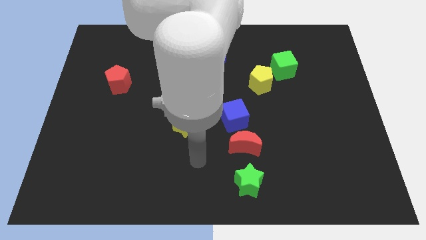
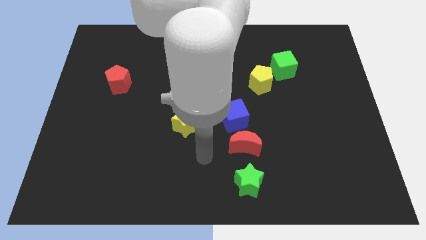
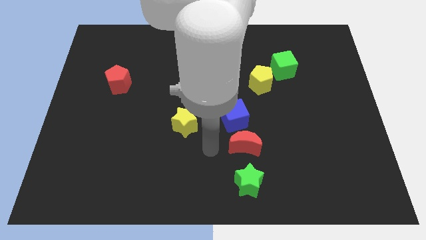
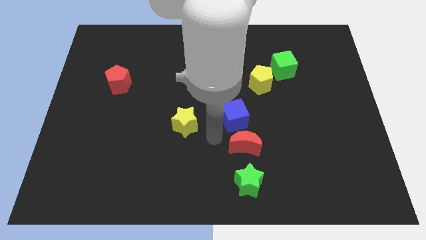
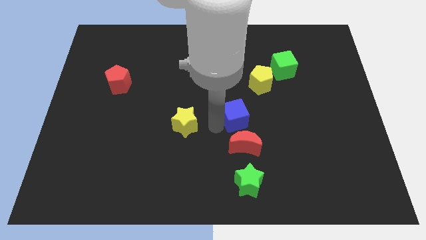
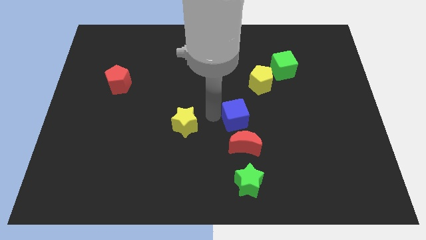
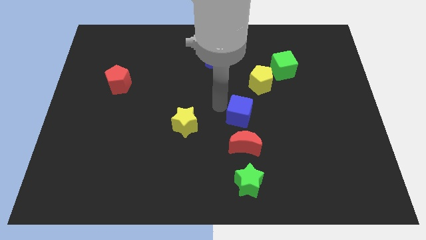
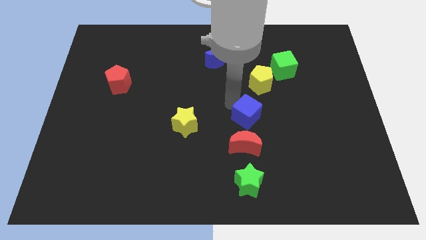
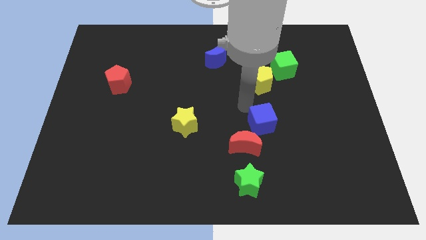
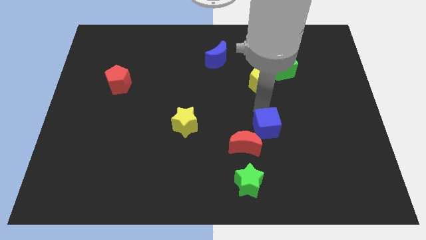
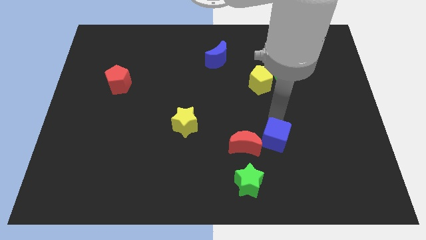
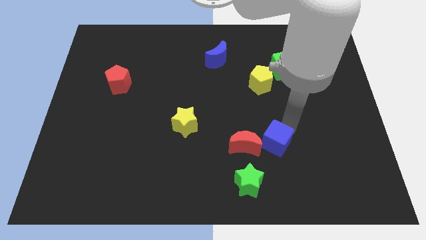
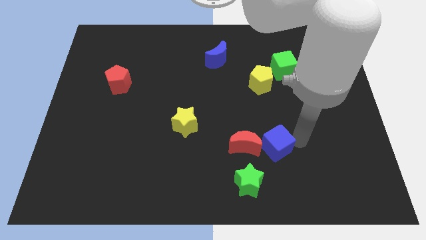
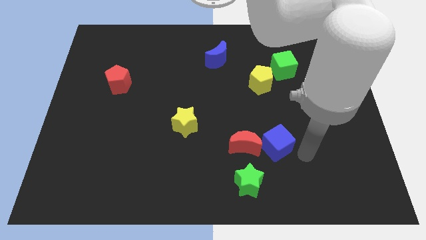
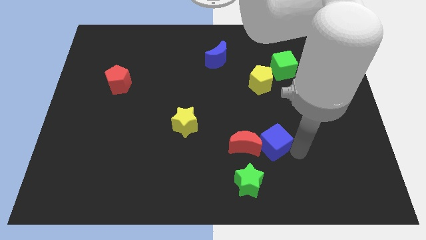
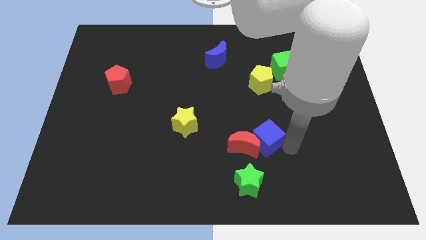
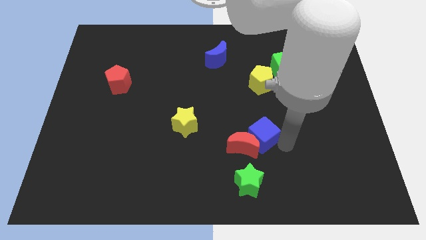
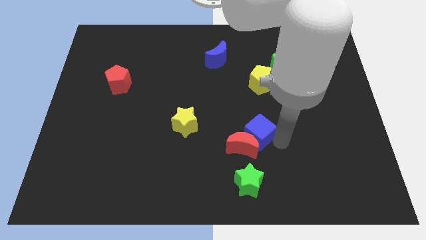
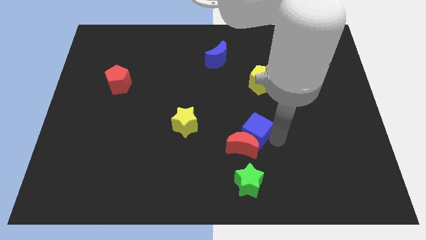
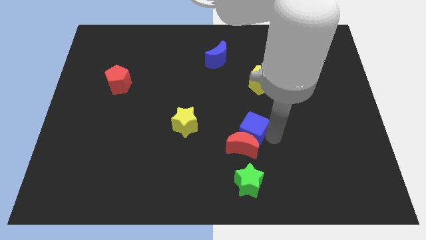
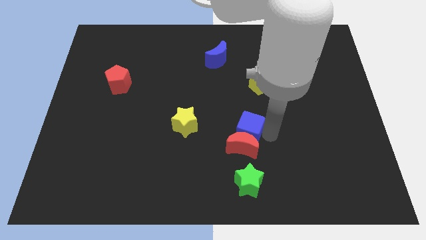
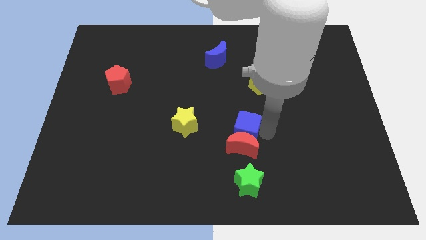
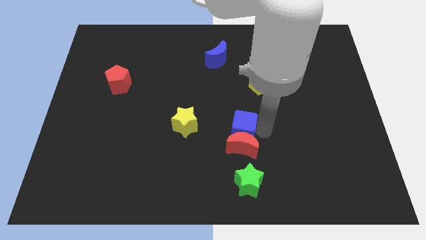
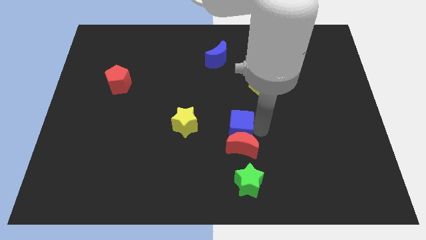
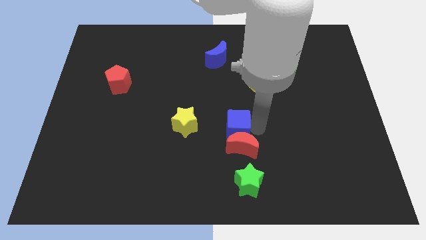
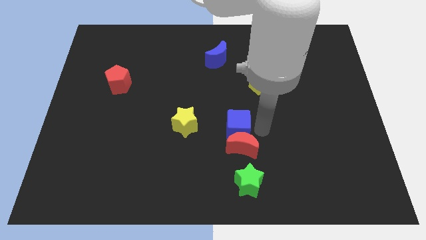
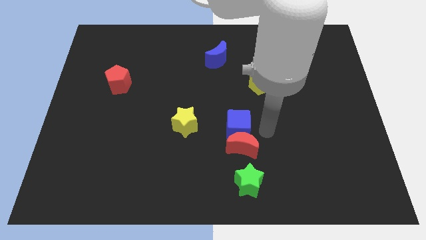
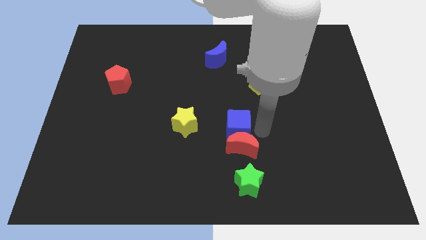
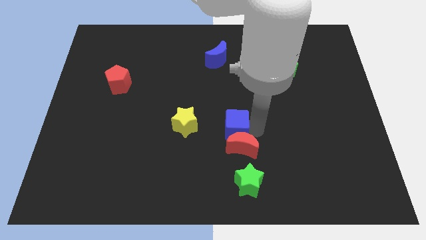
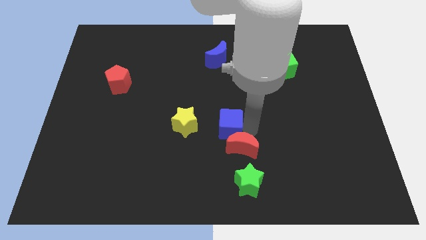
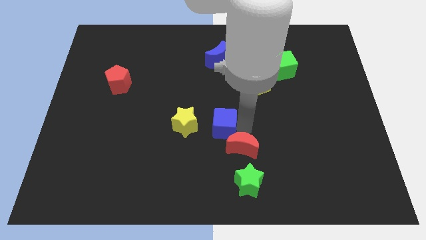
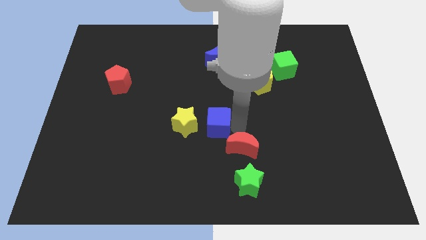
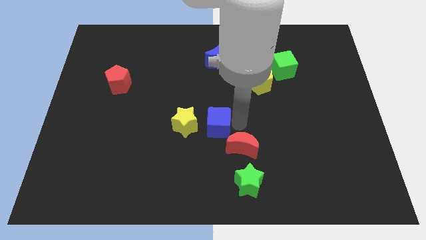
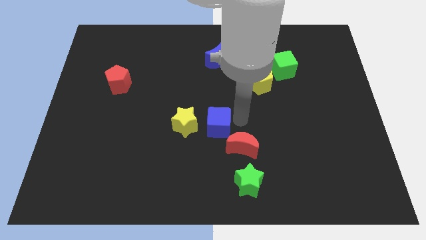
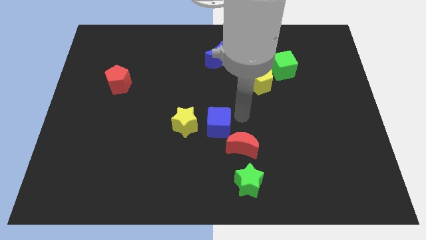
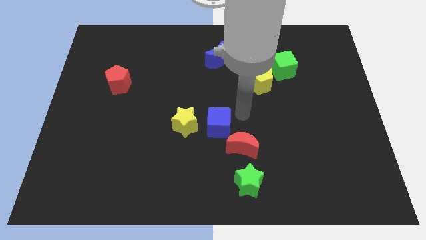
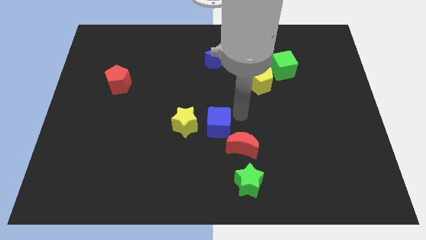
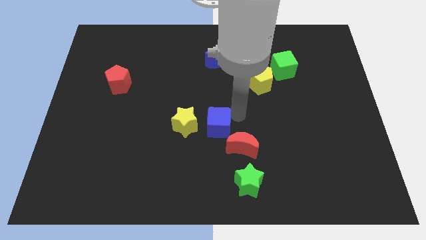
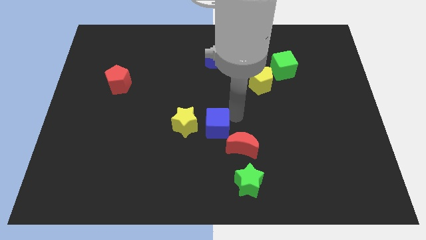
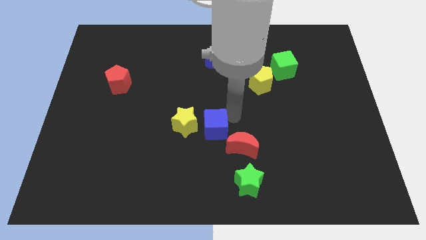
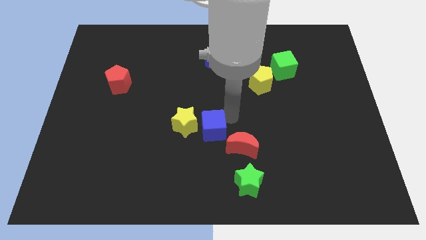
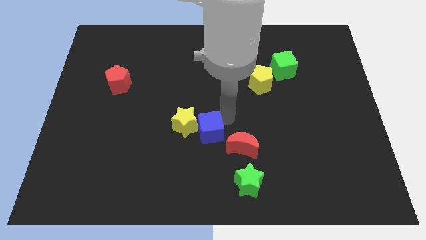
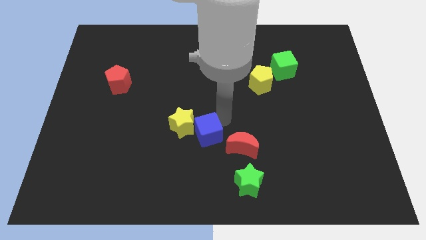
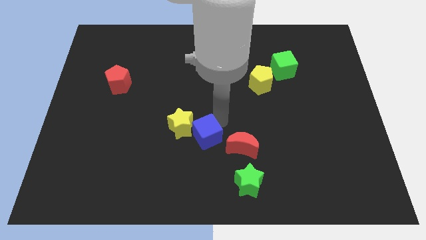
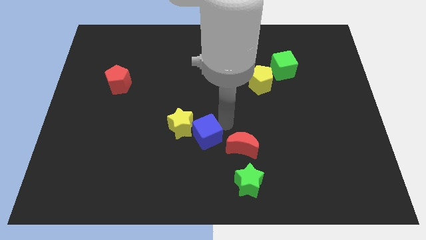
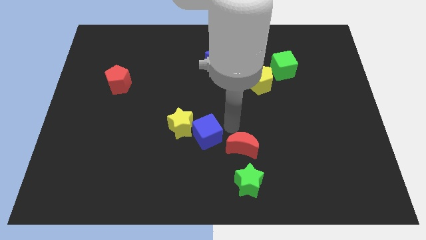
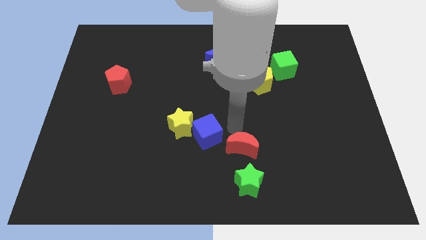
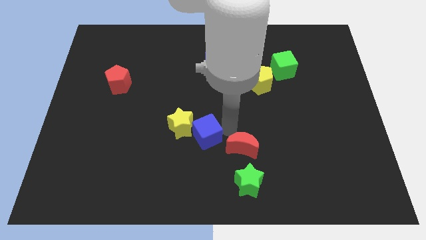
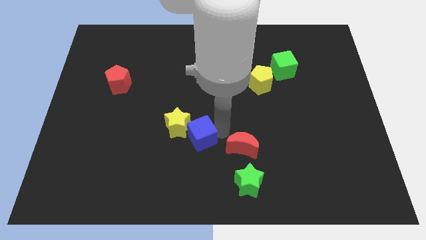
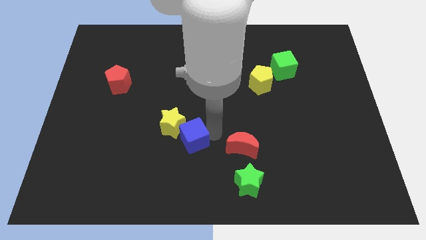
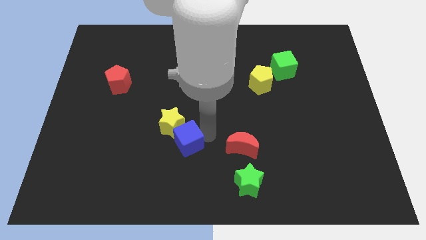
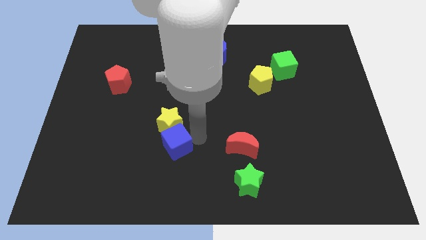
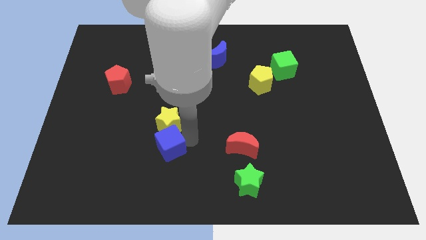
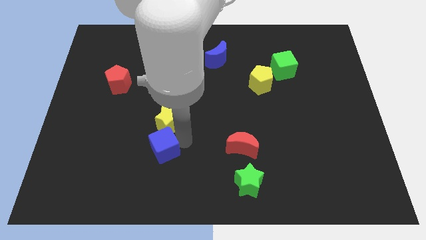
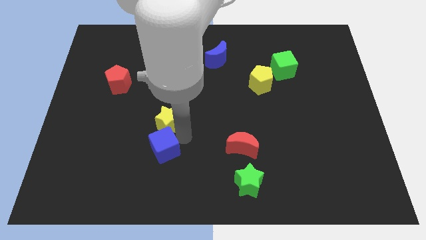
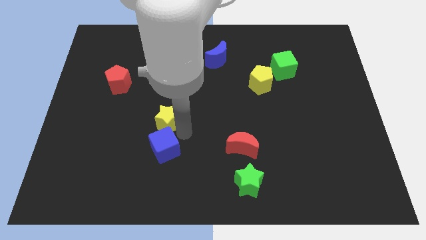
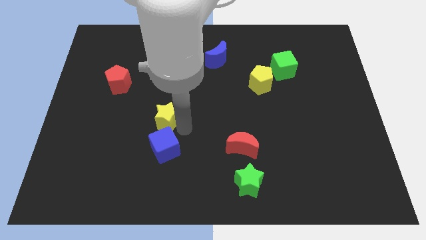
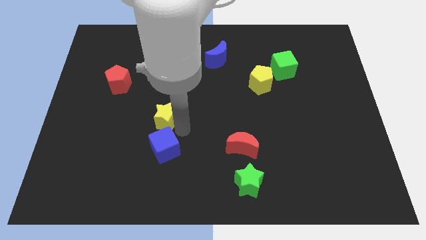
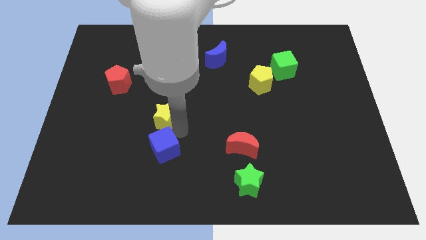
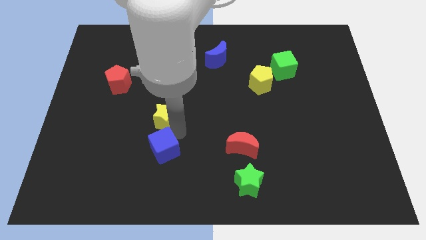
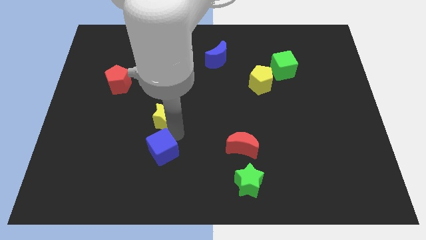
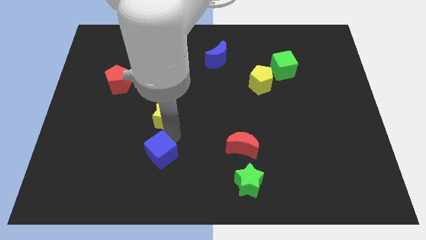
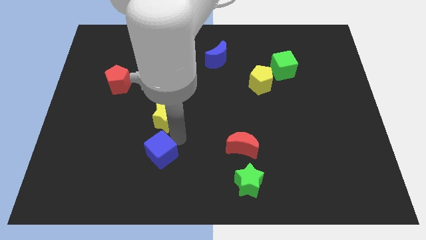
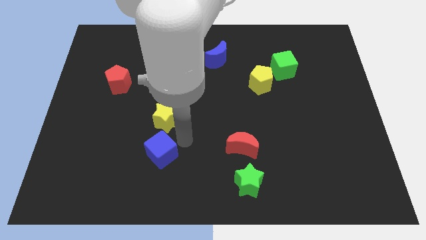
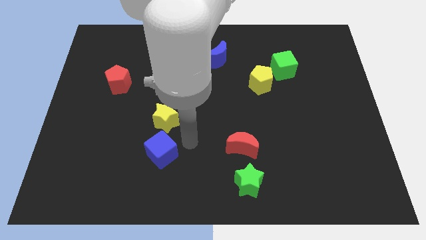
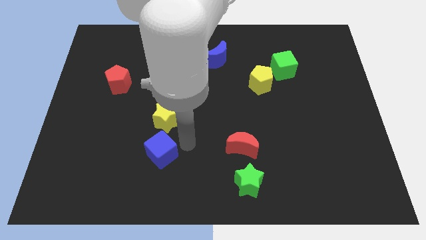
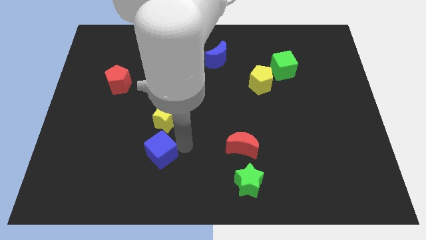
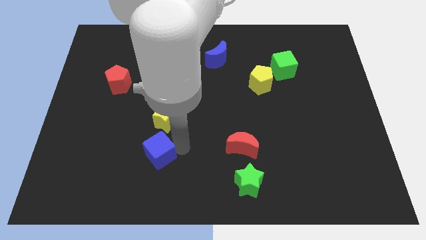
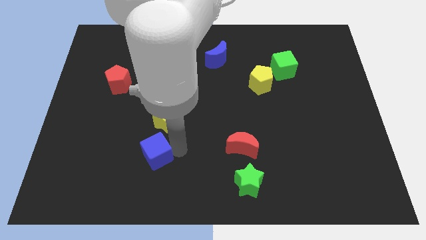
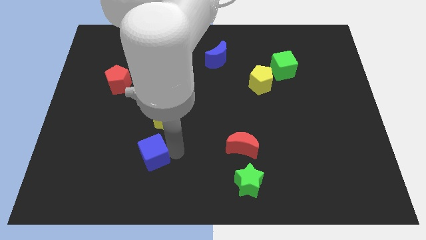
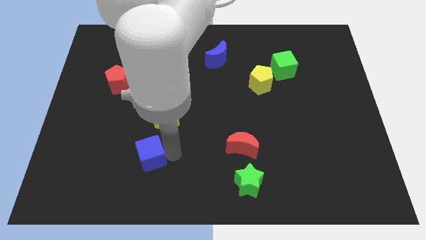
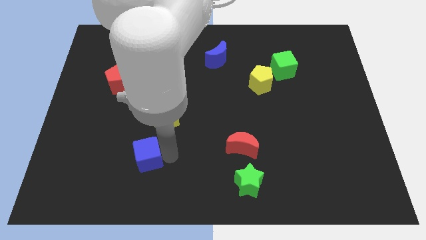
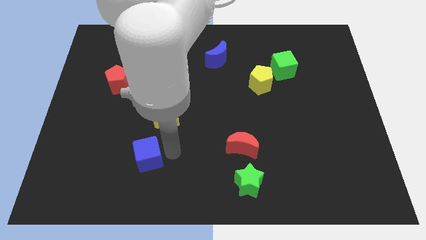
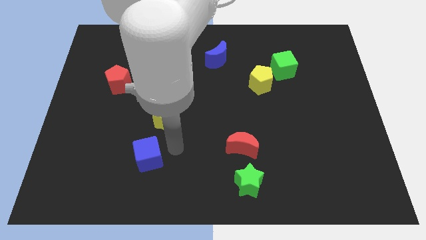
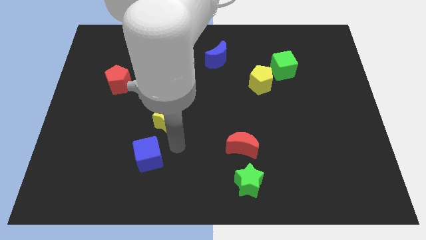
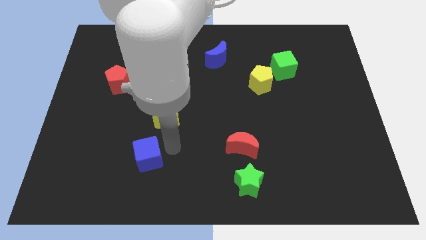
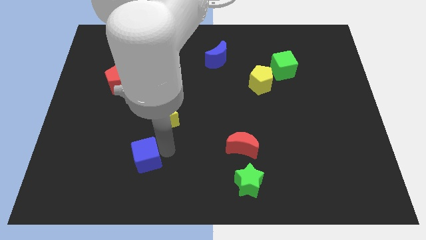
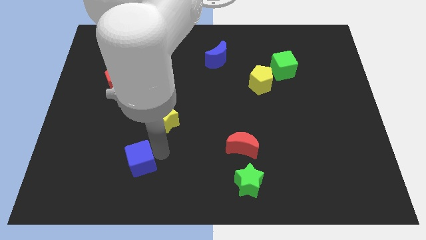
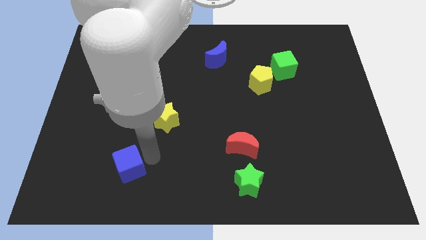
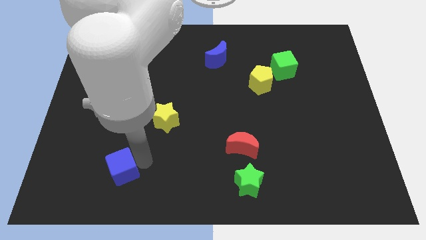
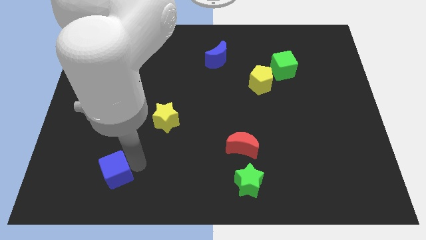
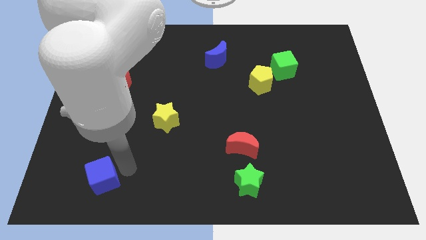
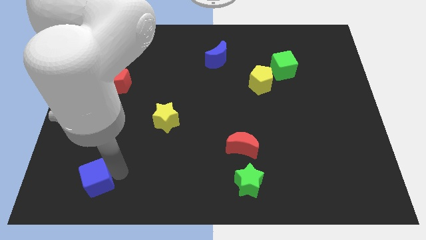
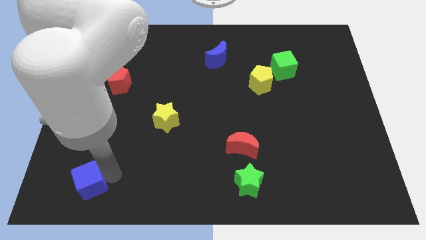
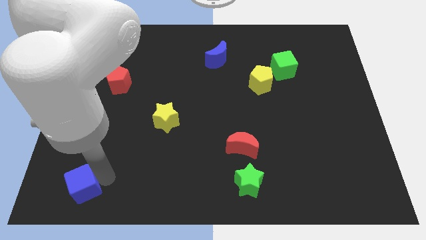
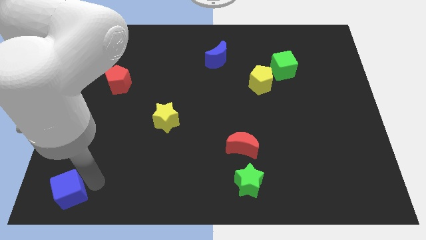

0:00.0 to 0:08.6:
slide the blue cube to the bottom left
